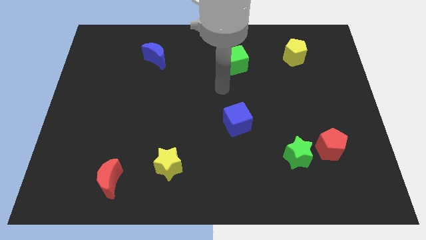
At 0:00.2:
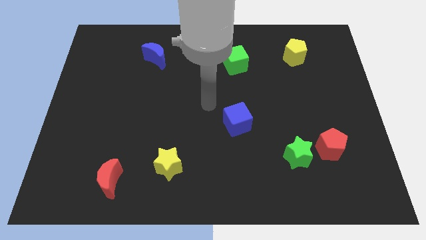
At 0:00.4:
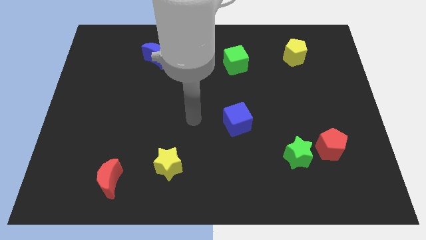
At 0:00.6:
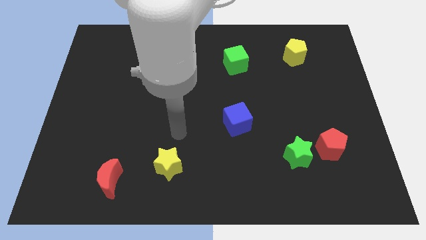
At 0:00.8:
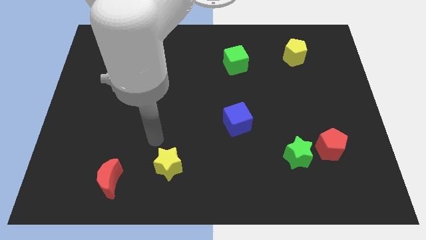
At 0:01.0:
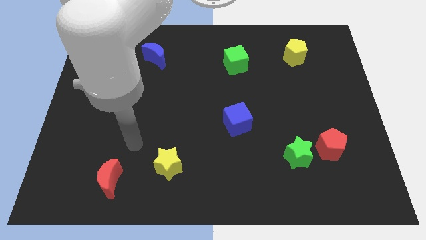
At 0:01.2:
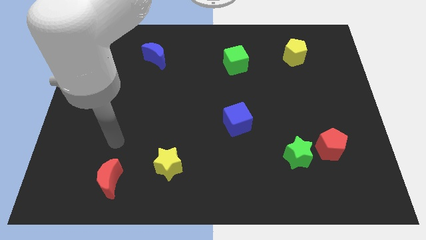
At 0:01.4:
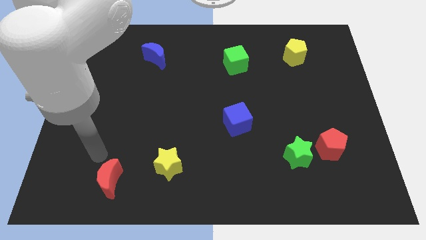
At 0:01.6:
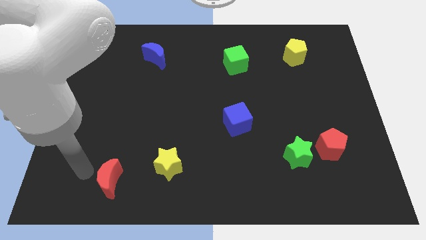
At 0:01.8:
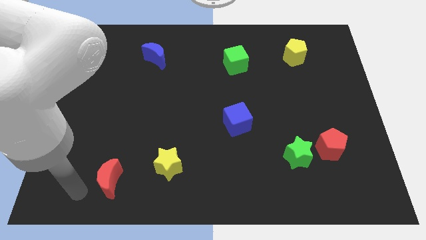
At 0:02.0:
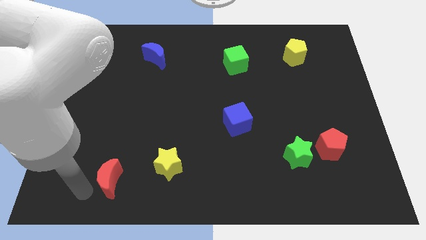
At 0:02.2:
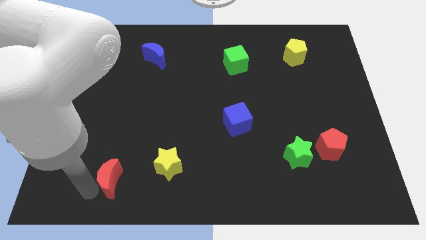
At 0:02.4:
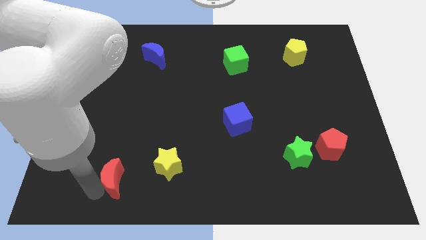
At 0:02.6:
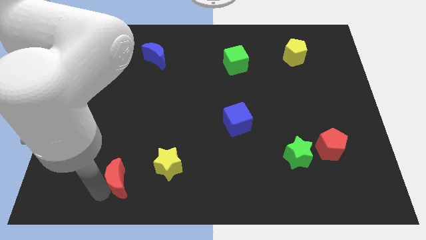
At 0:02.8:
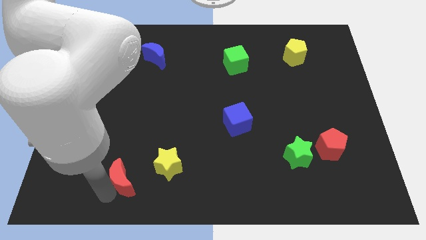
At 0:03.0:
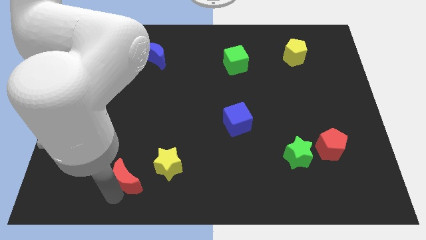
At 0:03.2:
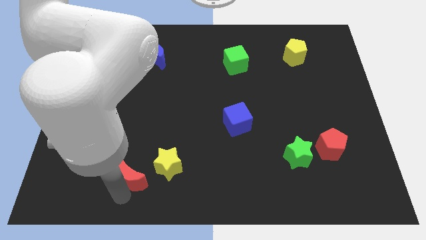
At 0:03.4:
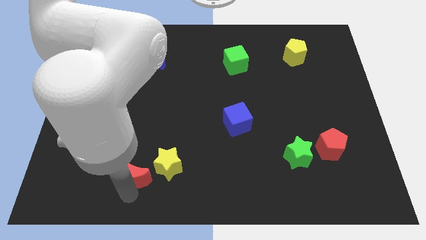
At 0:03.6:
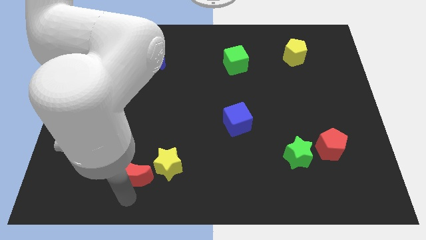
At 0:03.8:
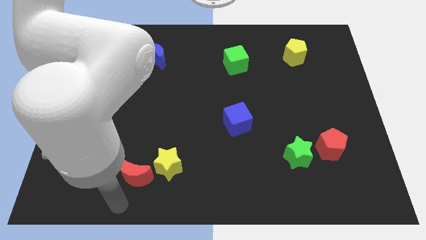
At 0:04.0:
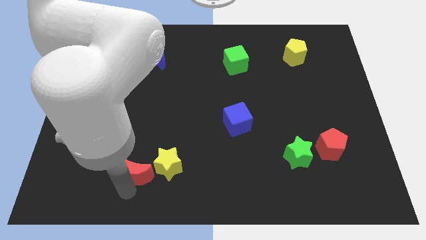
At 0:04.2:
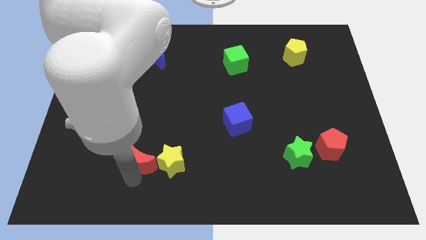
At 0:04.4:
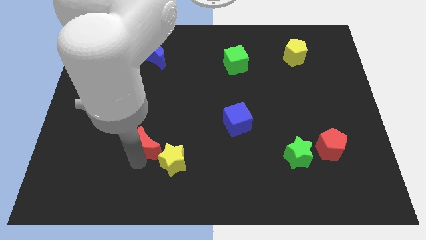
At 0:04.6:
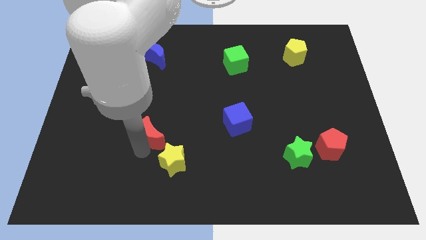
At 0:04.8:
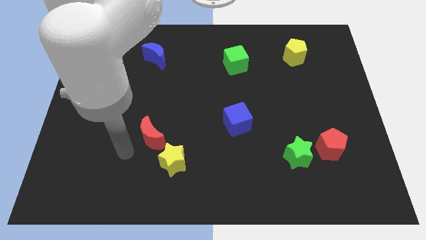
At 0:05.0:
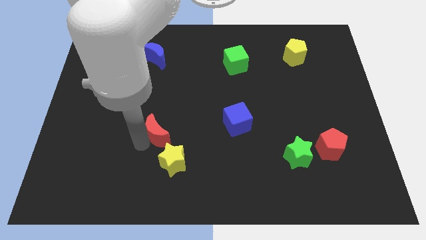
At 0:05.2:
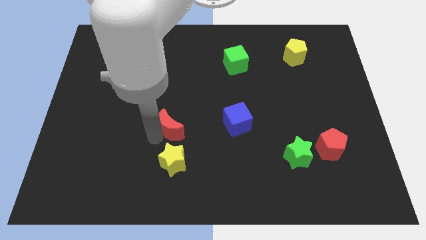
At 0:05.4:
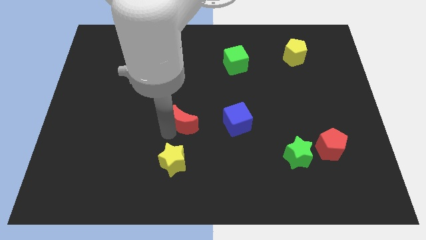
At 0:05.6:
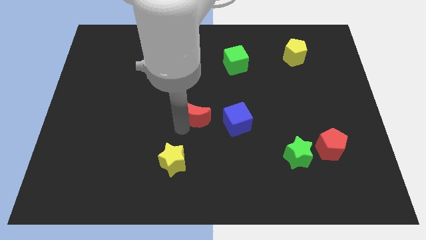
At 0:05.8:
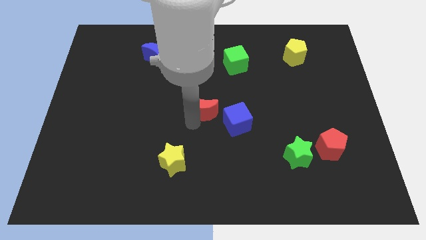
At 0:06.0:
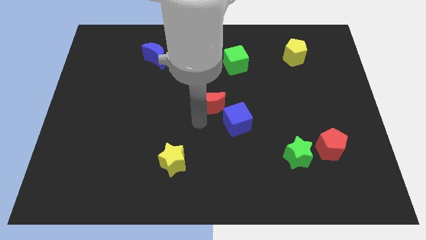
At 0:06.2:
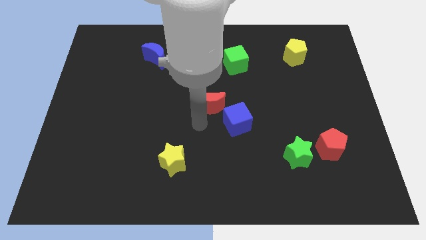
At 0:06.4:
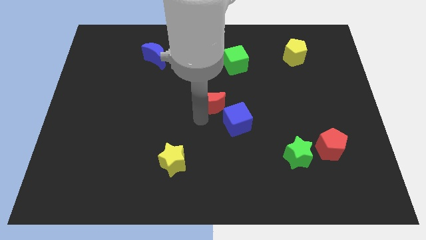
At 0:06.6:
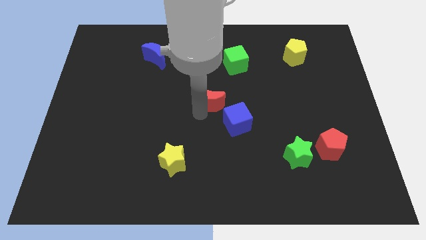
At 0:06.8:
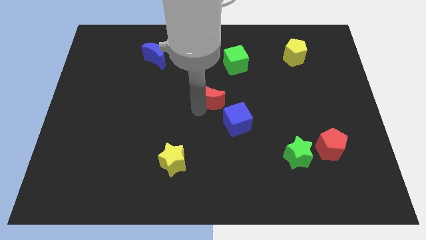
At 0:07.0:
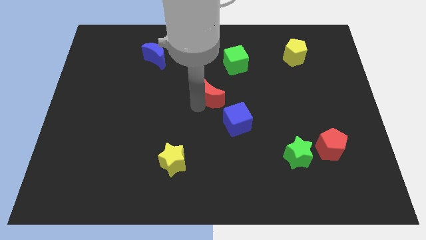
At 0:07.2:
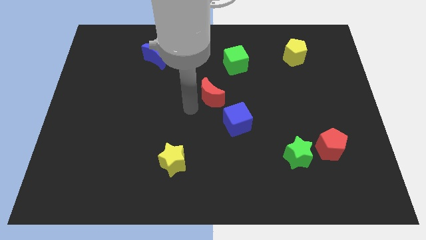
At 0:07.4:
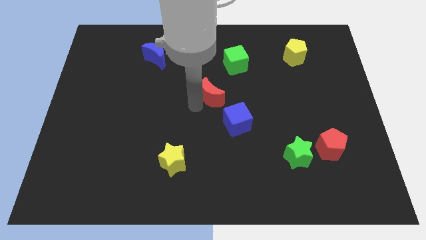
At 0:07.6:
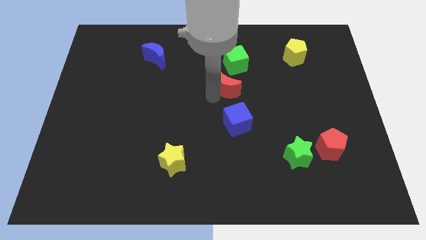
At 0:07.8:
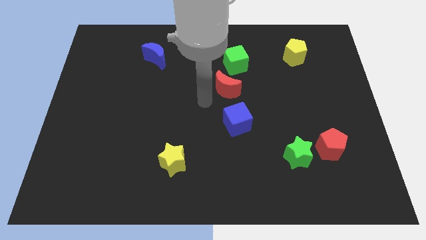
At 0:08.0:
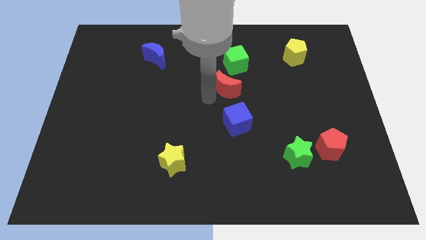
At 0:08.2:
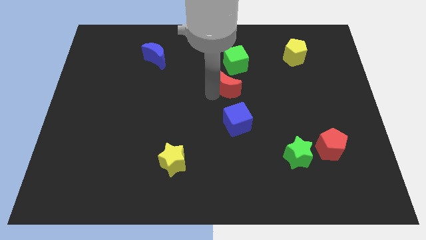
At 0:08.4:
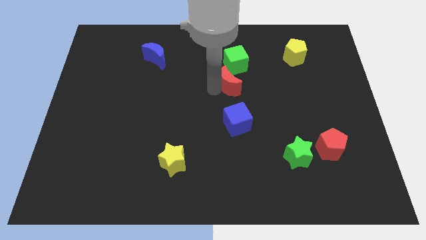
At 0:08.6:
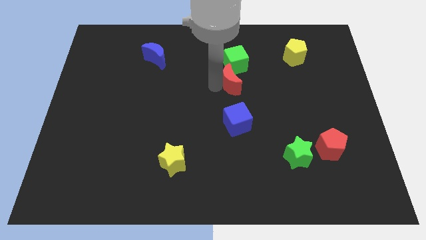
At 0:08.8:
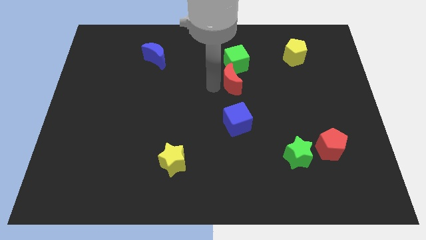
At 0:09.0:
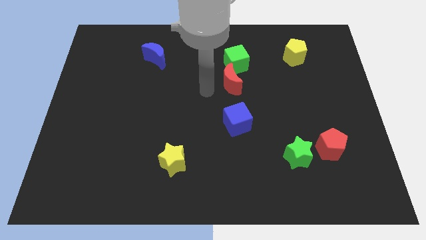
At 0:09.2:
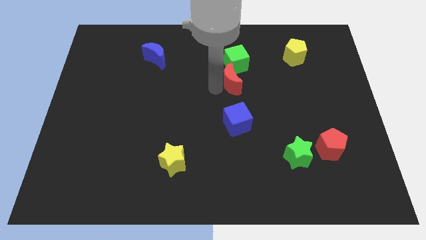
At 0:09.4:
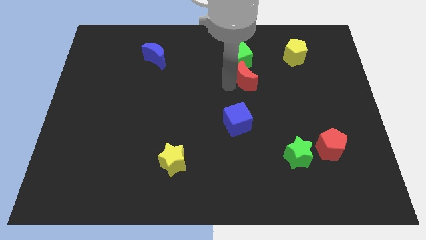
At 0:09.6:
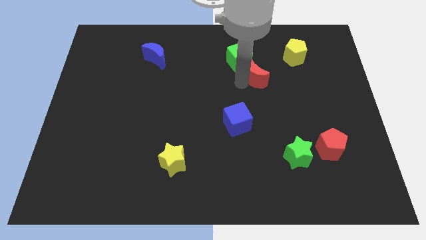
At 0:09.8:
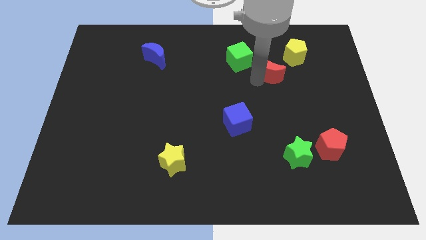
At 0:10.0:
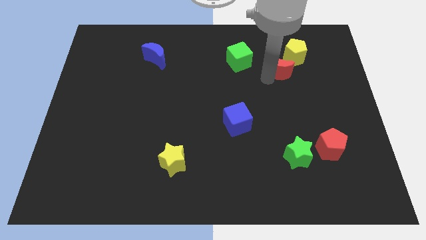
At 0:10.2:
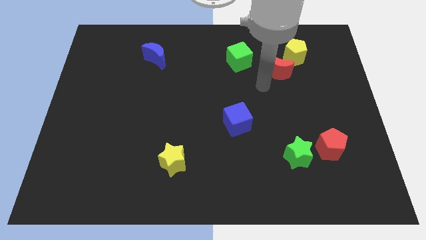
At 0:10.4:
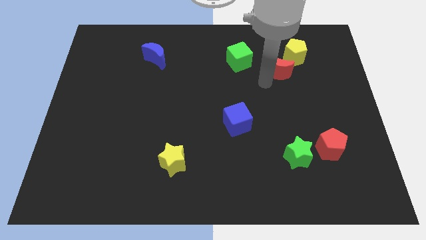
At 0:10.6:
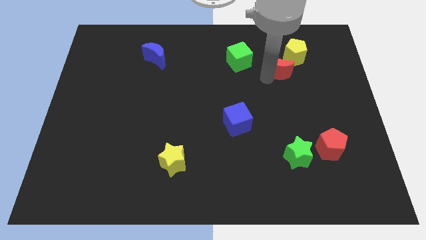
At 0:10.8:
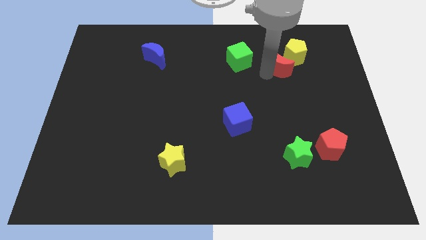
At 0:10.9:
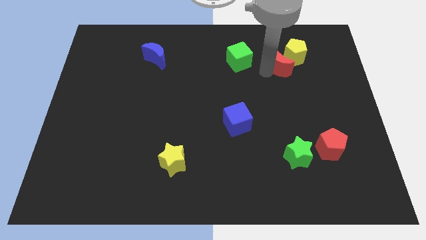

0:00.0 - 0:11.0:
push the red moon next to the yellow pentagon

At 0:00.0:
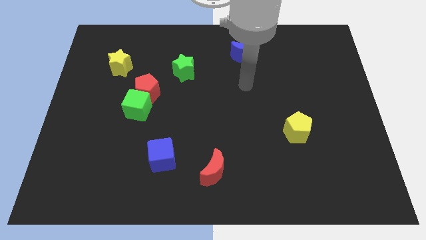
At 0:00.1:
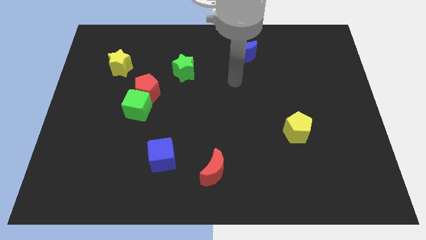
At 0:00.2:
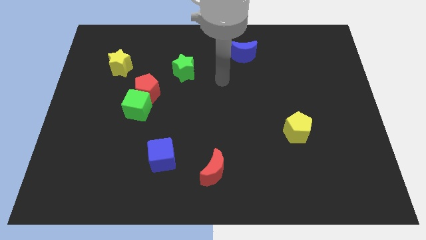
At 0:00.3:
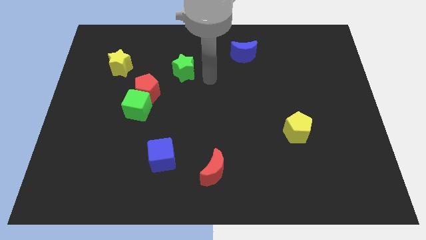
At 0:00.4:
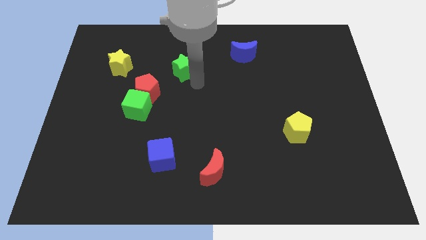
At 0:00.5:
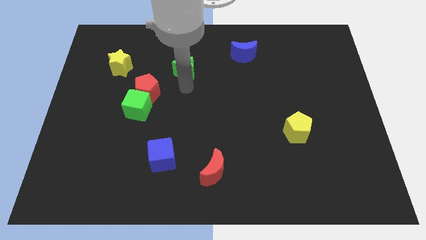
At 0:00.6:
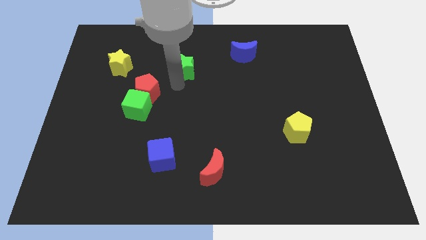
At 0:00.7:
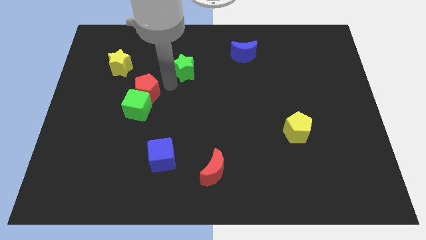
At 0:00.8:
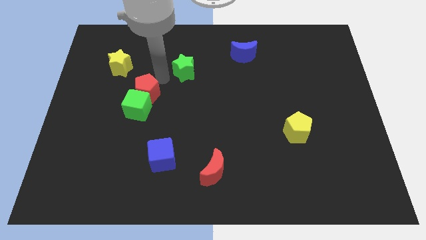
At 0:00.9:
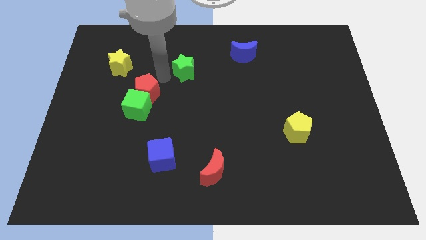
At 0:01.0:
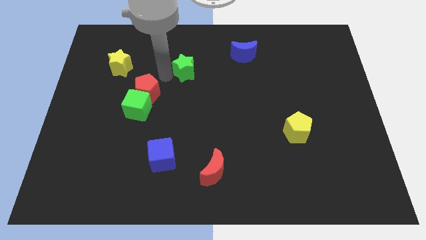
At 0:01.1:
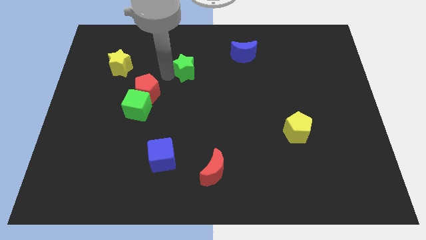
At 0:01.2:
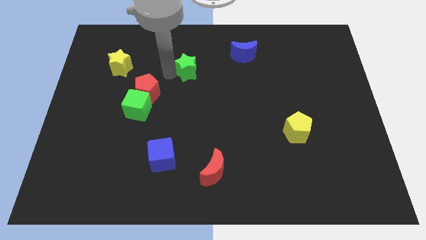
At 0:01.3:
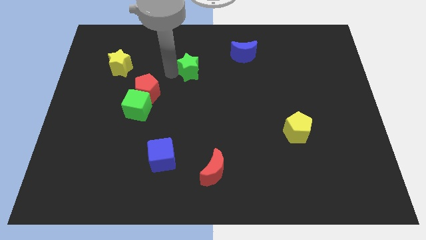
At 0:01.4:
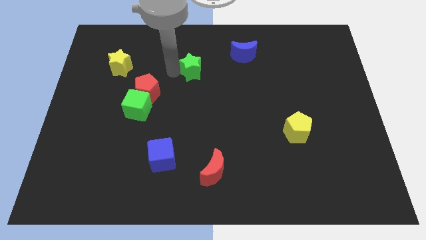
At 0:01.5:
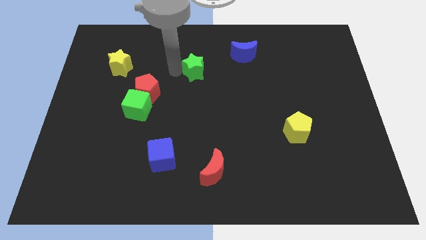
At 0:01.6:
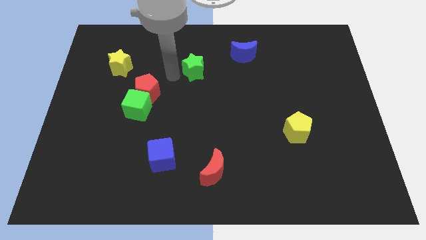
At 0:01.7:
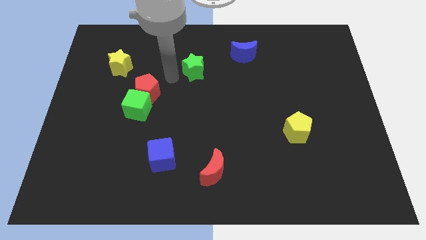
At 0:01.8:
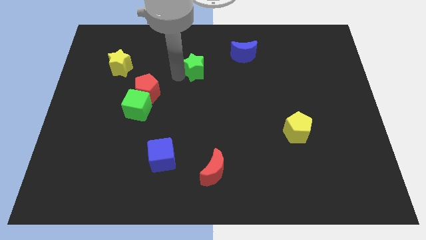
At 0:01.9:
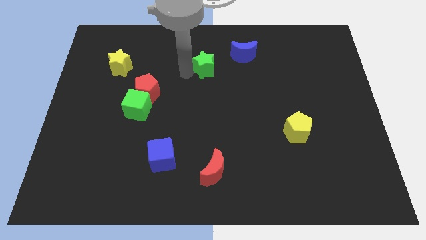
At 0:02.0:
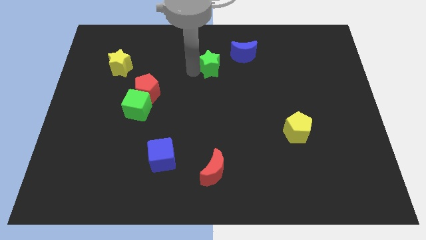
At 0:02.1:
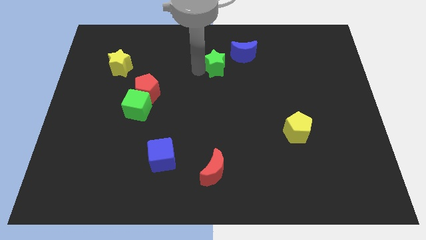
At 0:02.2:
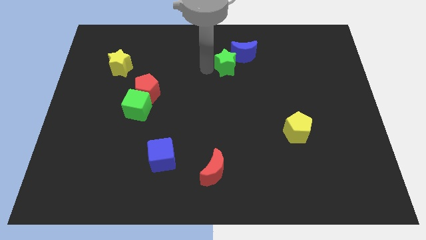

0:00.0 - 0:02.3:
put the green star next to the blue moon
